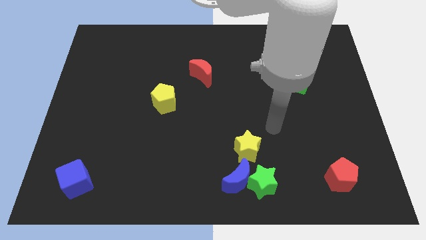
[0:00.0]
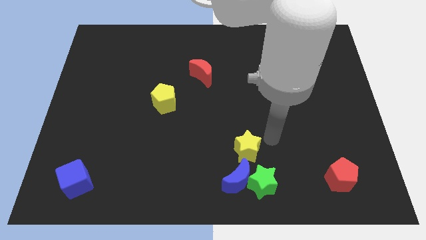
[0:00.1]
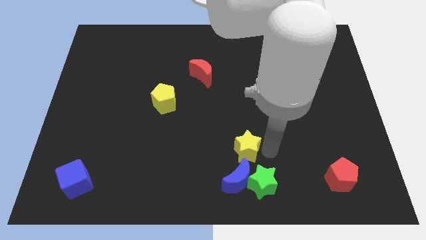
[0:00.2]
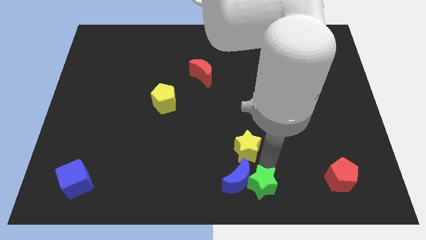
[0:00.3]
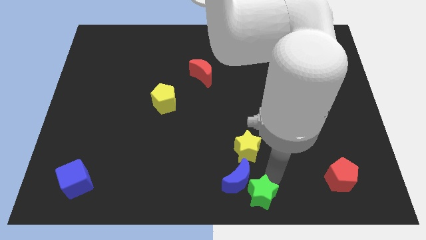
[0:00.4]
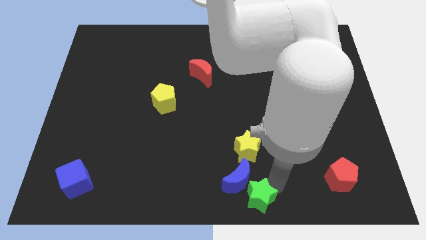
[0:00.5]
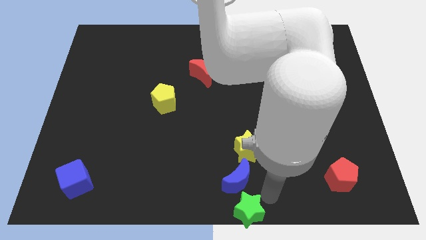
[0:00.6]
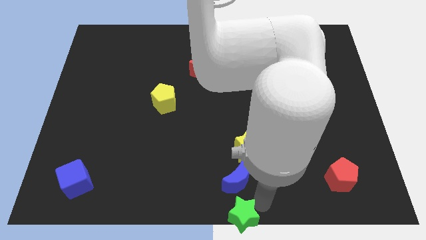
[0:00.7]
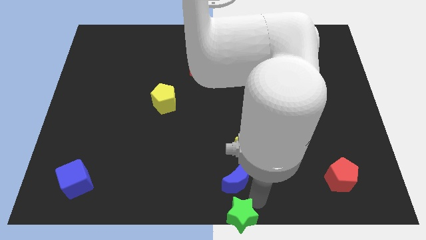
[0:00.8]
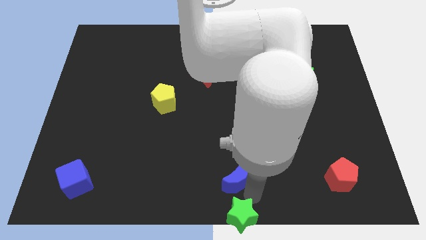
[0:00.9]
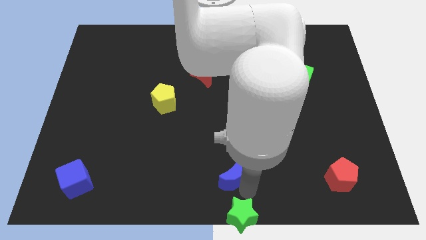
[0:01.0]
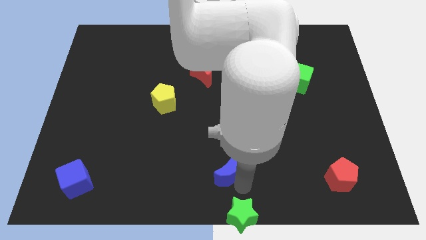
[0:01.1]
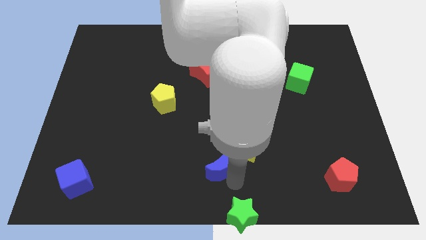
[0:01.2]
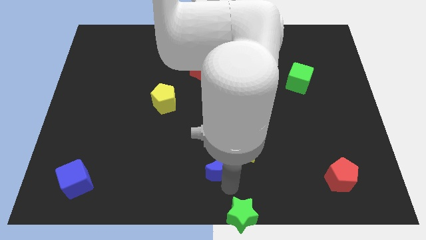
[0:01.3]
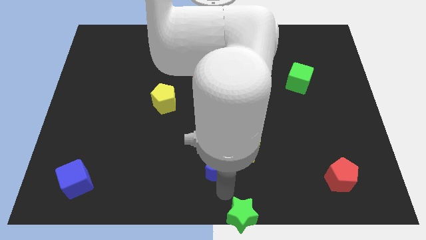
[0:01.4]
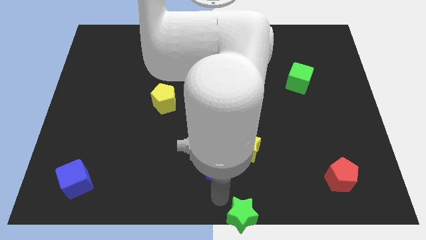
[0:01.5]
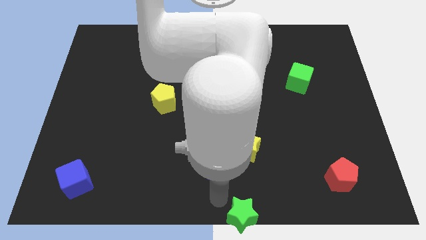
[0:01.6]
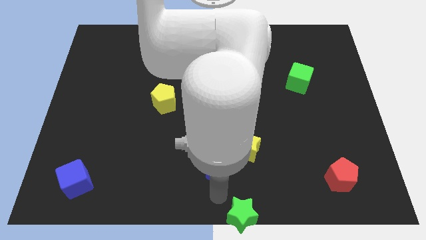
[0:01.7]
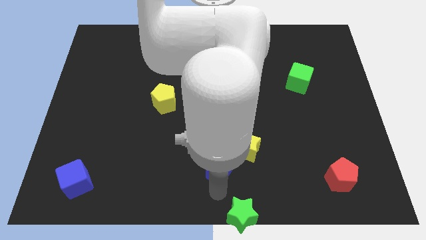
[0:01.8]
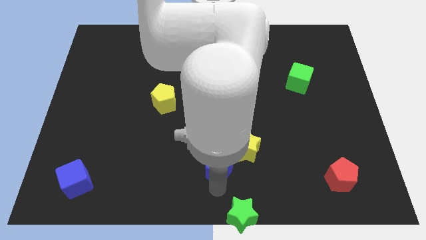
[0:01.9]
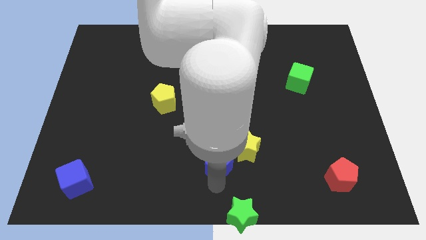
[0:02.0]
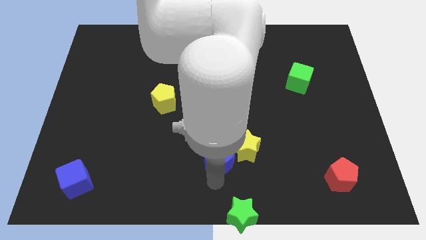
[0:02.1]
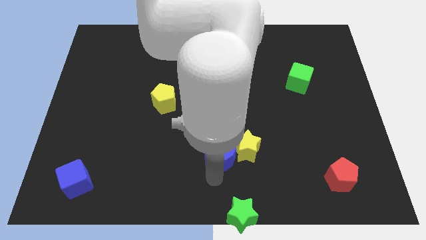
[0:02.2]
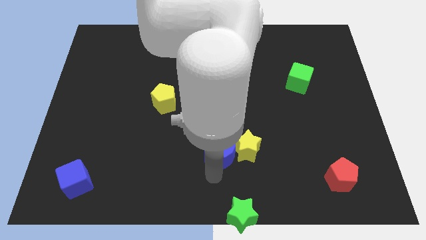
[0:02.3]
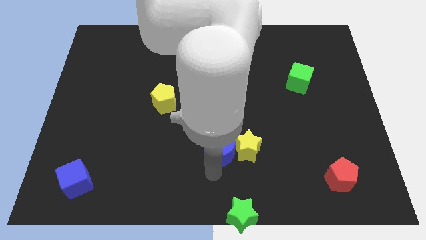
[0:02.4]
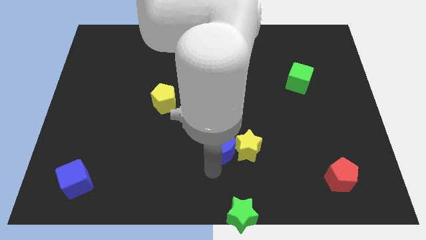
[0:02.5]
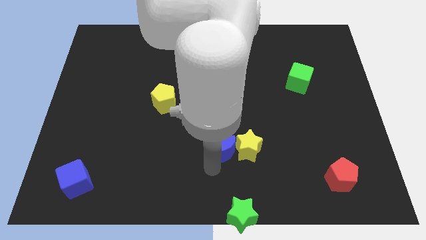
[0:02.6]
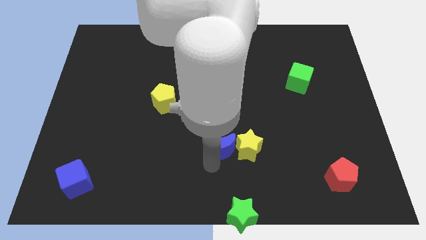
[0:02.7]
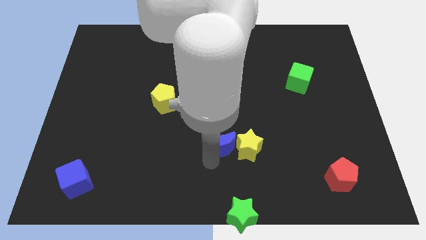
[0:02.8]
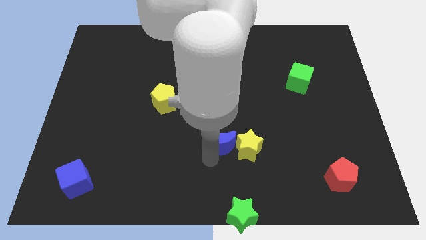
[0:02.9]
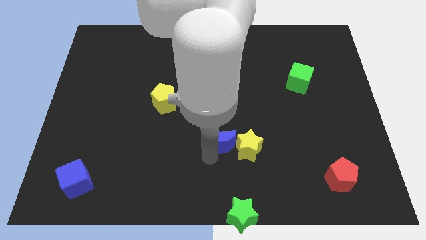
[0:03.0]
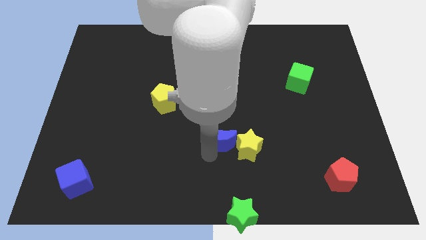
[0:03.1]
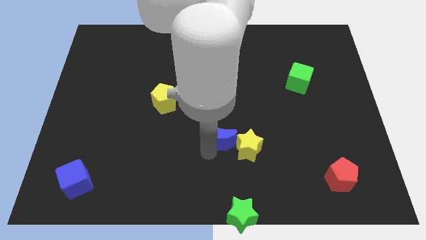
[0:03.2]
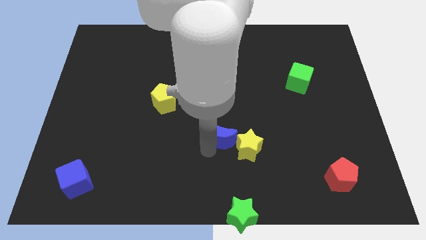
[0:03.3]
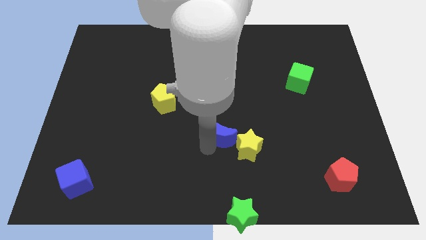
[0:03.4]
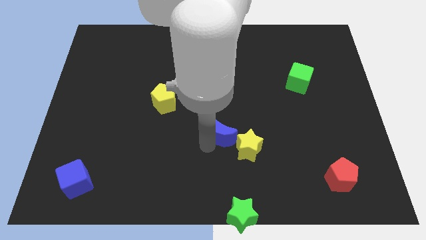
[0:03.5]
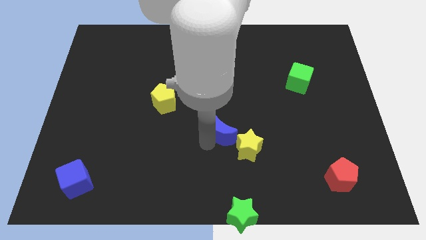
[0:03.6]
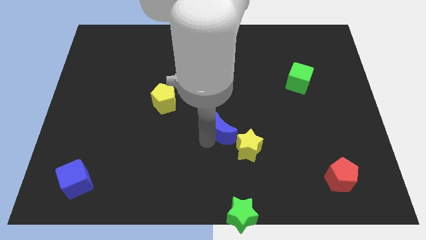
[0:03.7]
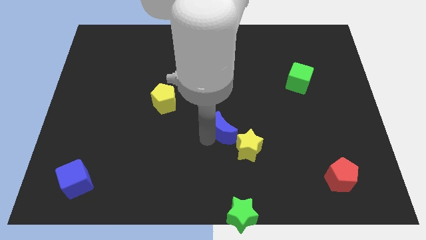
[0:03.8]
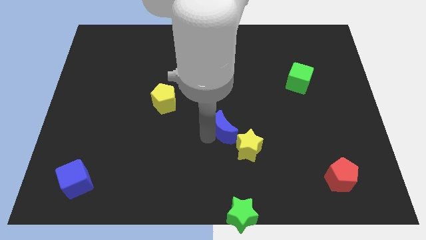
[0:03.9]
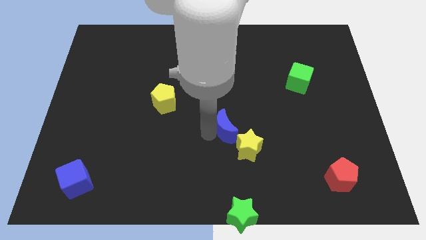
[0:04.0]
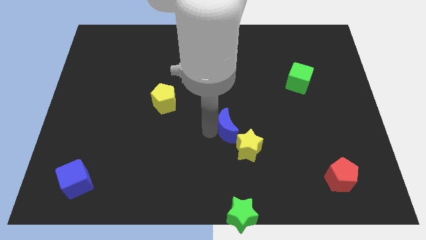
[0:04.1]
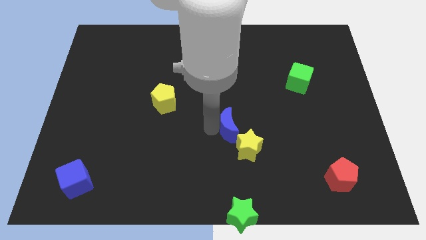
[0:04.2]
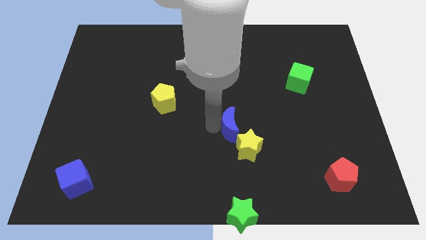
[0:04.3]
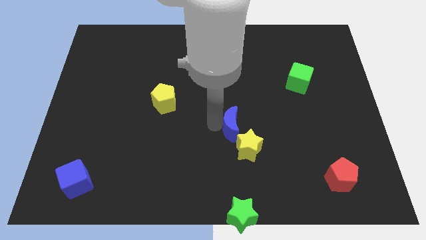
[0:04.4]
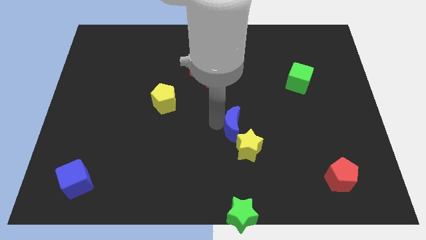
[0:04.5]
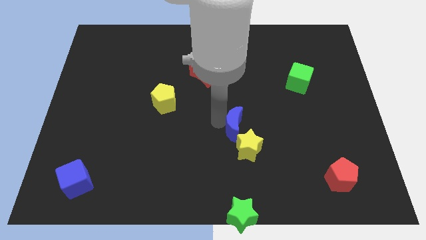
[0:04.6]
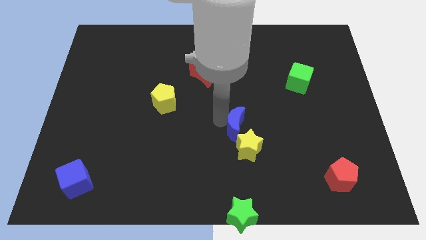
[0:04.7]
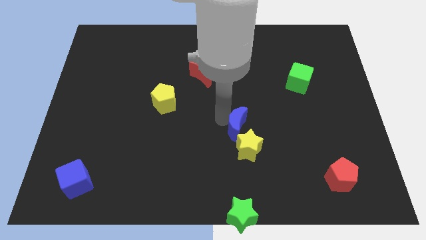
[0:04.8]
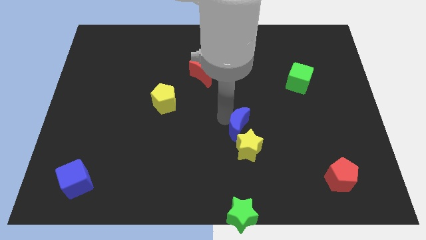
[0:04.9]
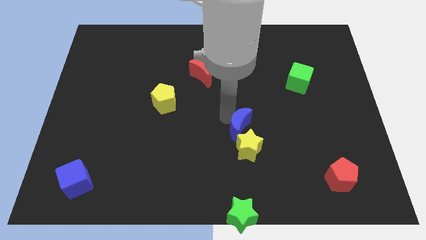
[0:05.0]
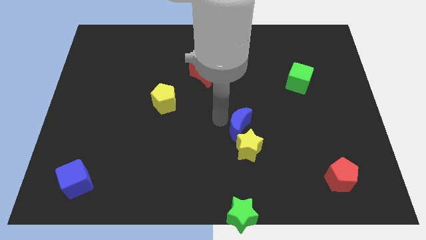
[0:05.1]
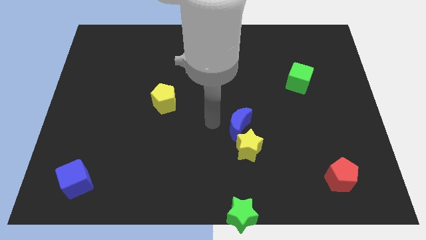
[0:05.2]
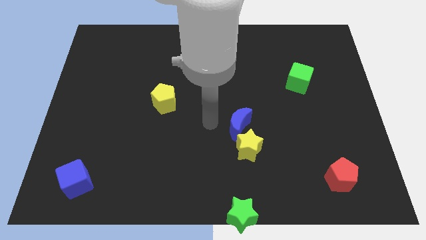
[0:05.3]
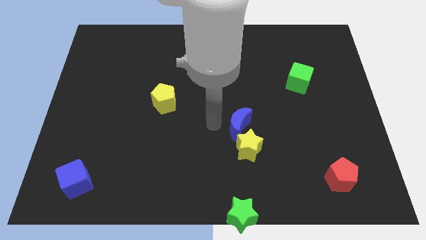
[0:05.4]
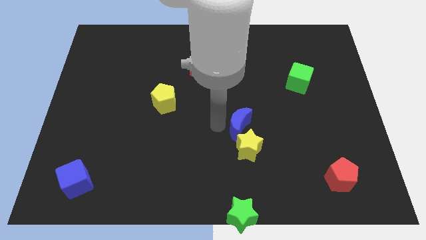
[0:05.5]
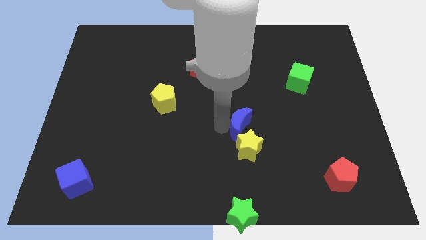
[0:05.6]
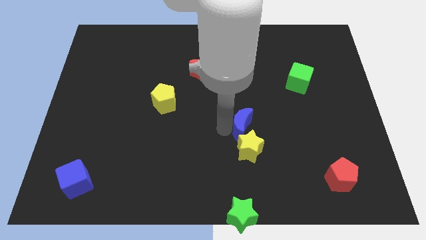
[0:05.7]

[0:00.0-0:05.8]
slightly push the blue moon upwards and to the right diagonally

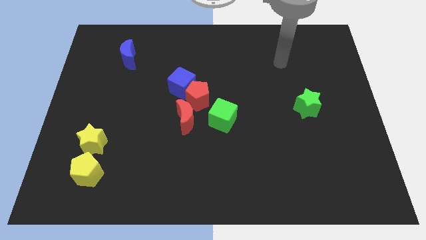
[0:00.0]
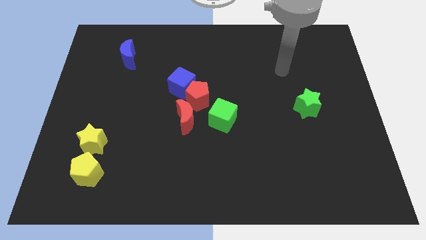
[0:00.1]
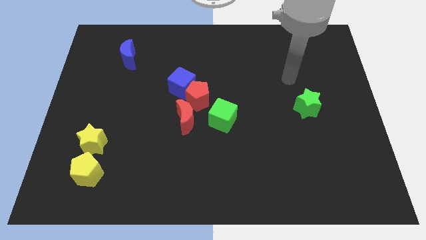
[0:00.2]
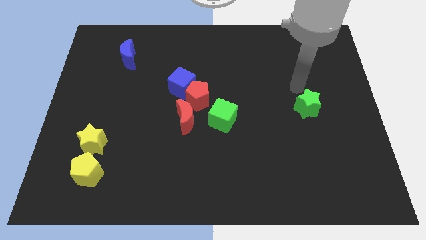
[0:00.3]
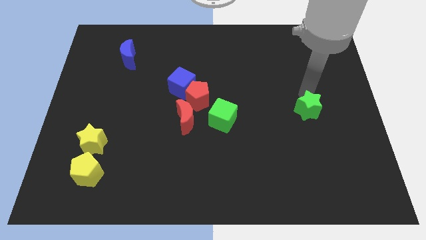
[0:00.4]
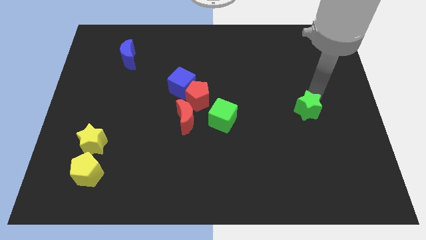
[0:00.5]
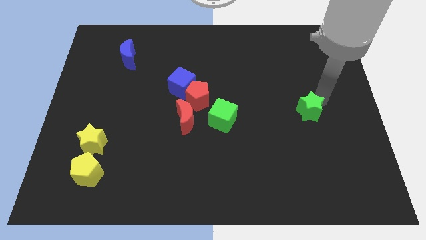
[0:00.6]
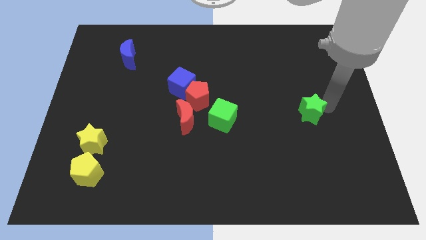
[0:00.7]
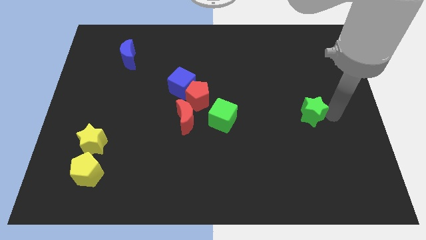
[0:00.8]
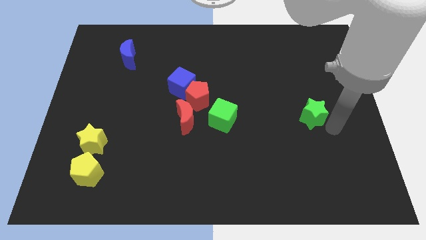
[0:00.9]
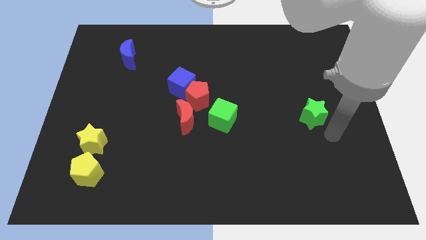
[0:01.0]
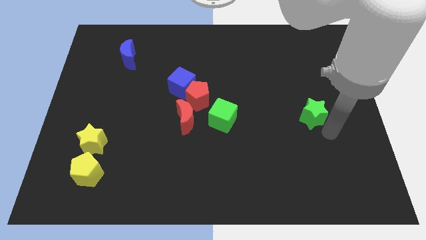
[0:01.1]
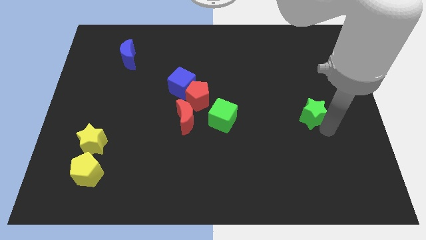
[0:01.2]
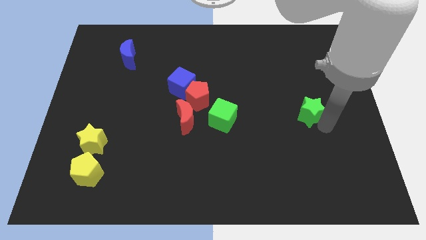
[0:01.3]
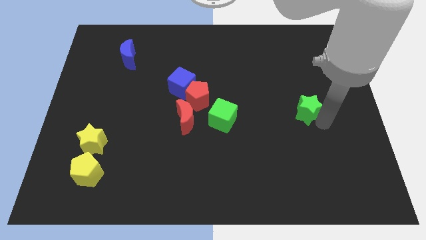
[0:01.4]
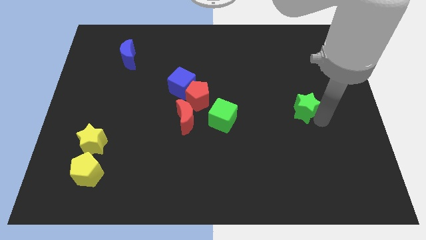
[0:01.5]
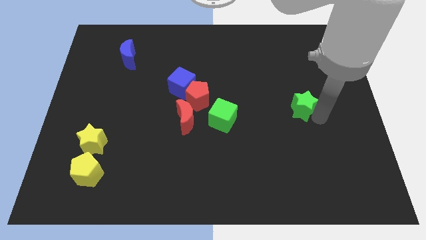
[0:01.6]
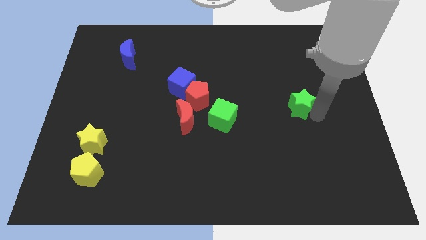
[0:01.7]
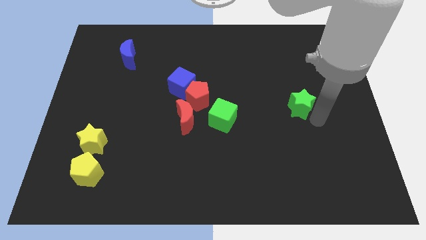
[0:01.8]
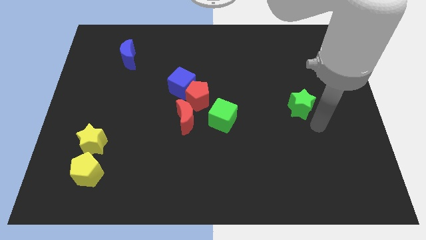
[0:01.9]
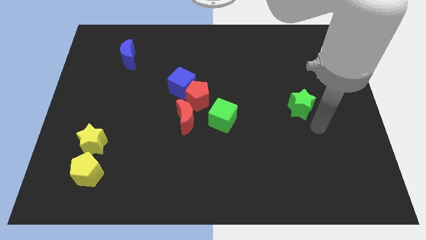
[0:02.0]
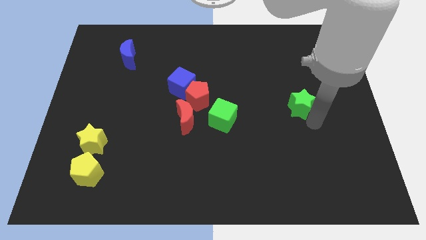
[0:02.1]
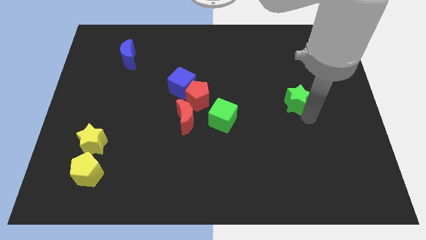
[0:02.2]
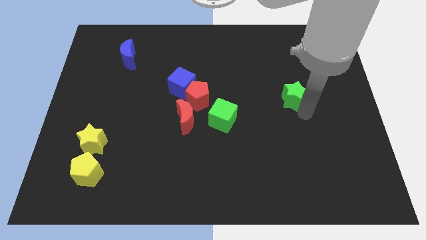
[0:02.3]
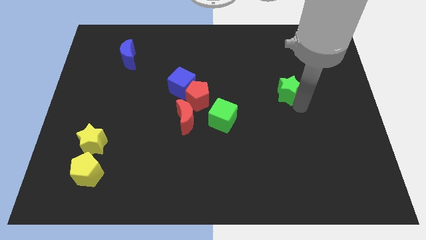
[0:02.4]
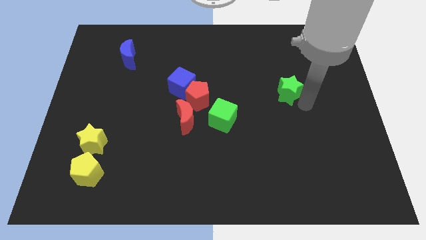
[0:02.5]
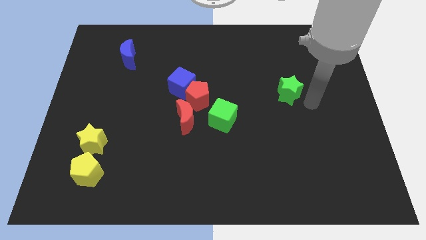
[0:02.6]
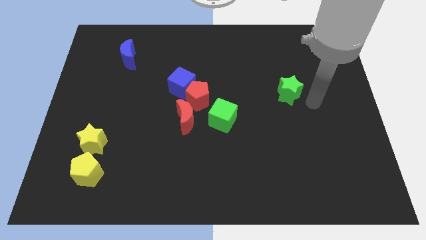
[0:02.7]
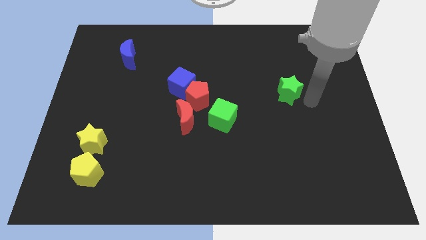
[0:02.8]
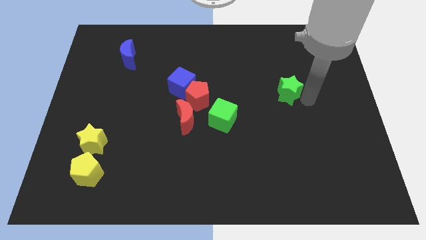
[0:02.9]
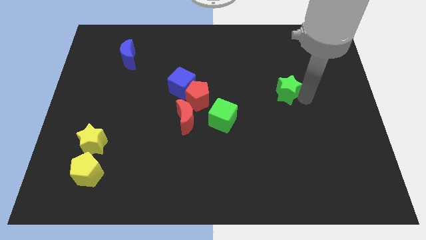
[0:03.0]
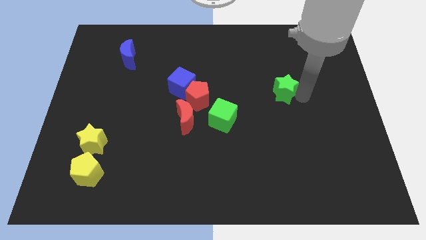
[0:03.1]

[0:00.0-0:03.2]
slide the green star a bit diagonally upwards and left
